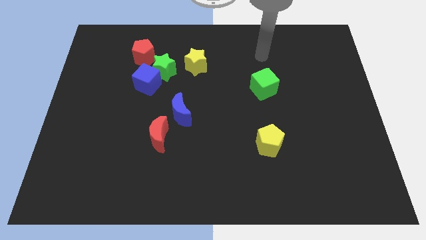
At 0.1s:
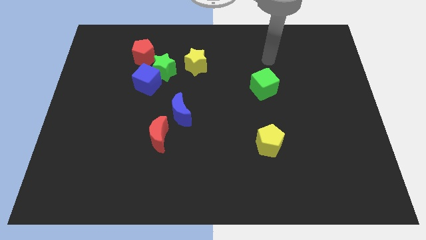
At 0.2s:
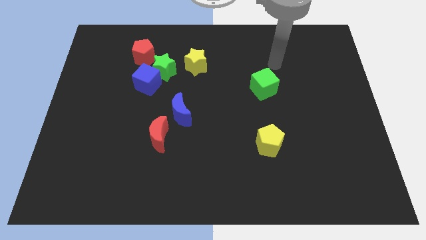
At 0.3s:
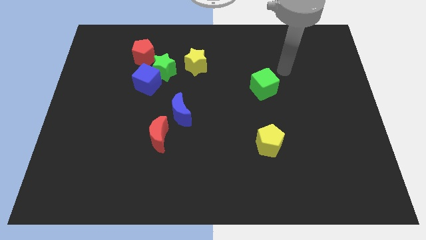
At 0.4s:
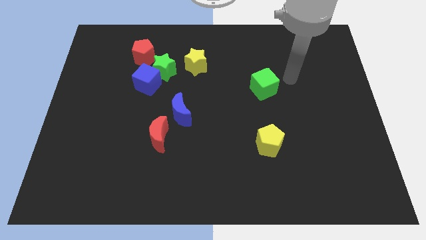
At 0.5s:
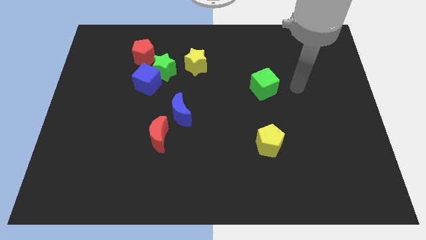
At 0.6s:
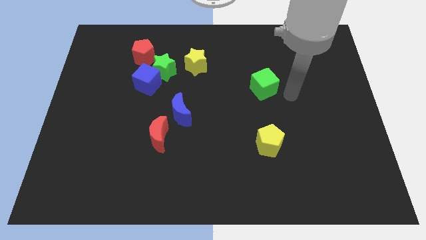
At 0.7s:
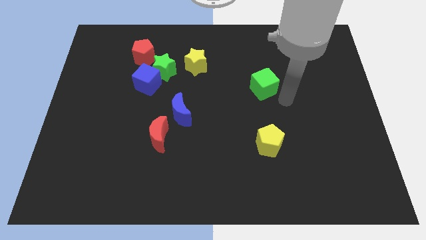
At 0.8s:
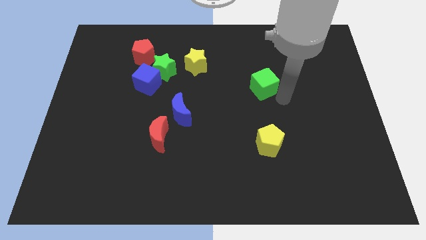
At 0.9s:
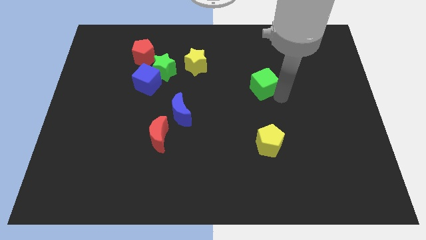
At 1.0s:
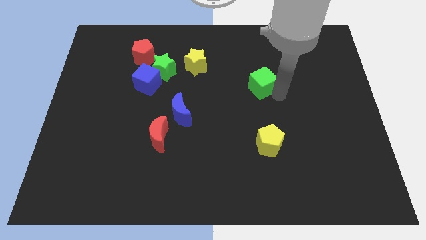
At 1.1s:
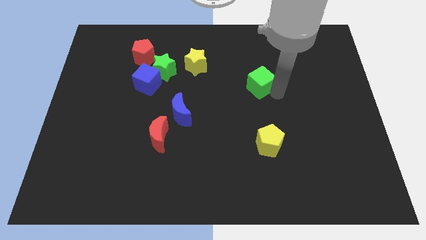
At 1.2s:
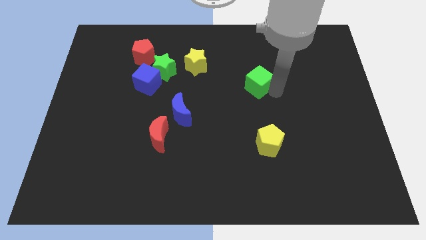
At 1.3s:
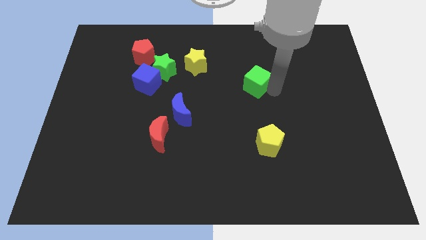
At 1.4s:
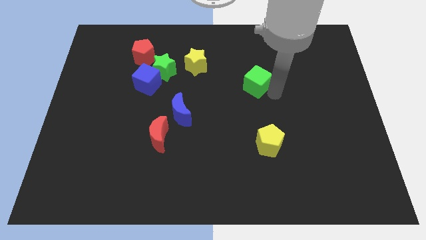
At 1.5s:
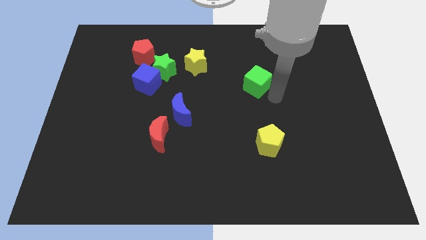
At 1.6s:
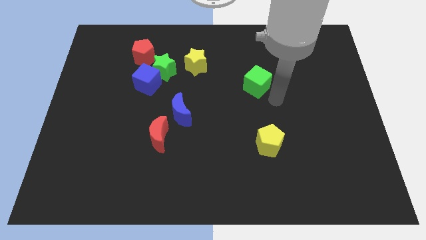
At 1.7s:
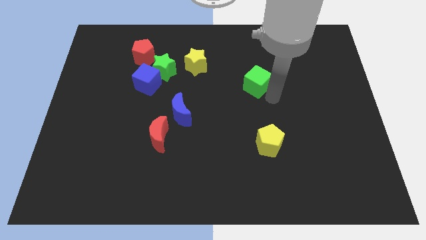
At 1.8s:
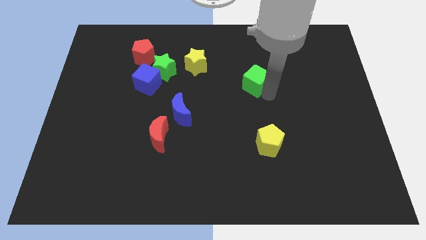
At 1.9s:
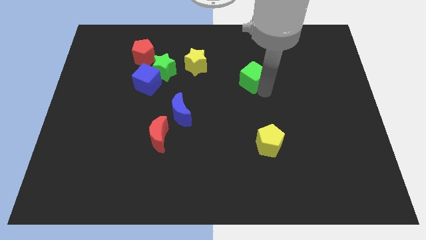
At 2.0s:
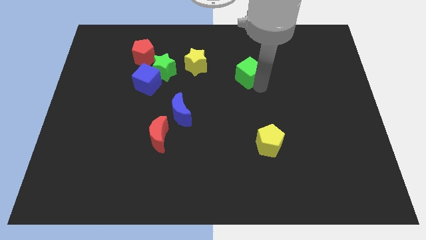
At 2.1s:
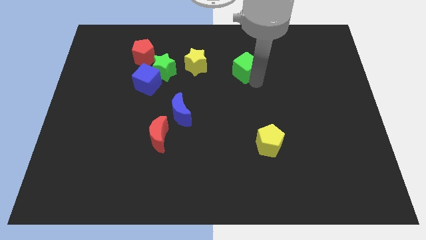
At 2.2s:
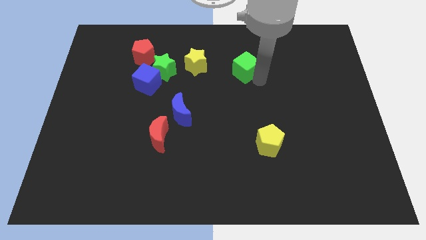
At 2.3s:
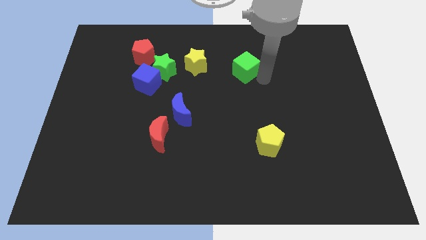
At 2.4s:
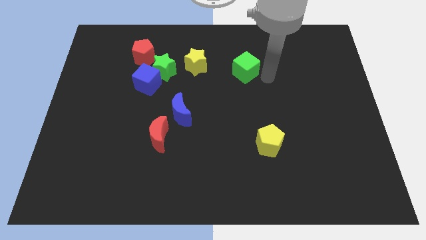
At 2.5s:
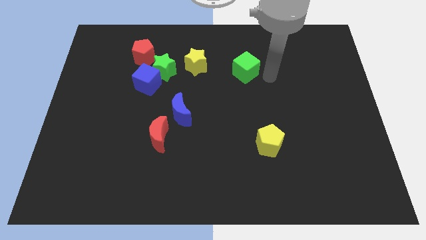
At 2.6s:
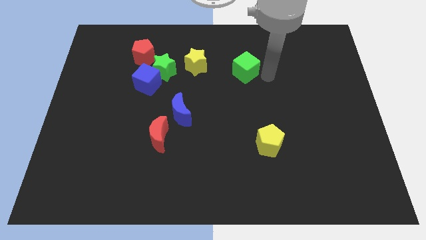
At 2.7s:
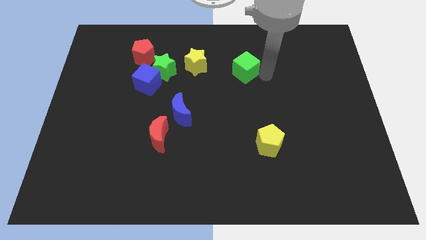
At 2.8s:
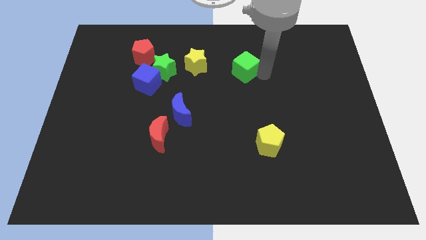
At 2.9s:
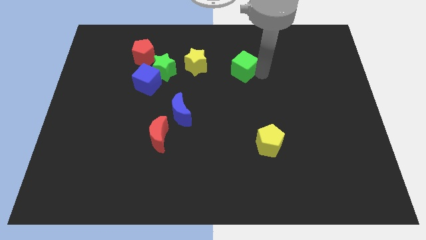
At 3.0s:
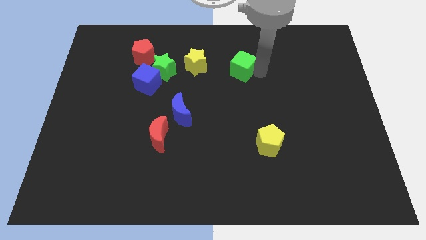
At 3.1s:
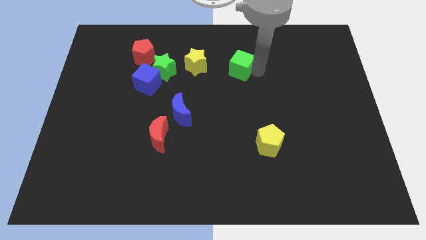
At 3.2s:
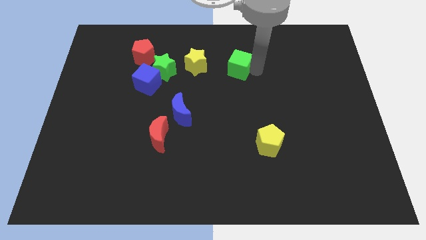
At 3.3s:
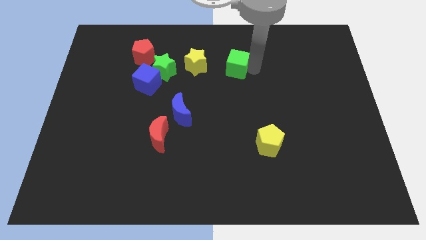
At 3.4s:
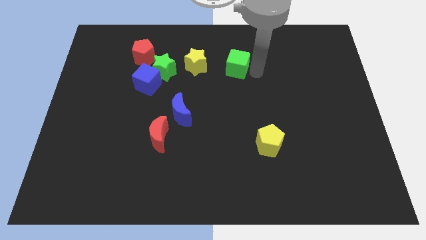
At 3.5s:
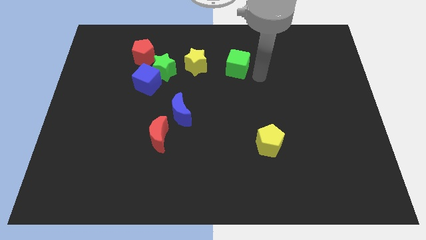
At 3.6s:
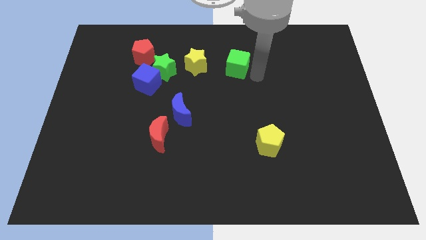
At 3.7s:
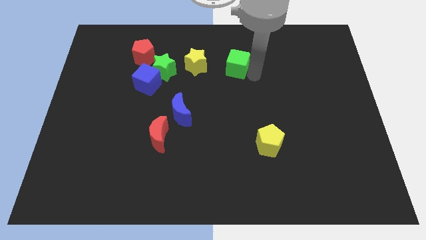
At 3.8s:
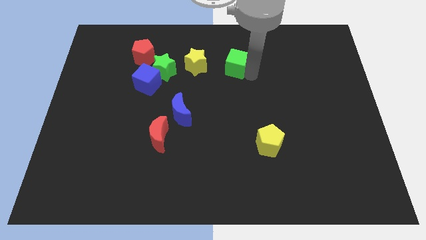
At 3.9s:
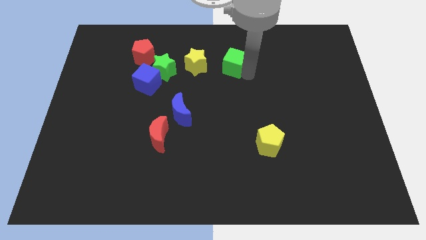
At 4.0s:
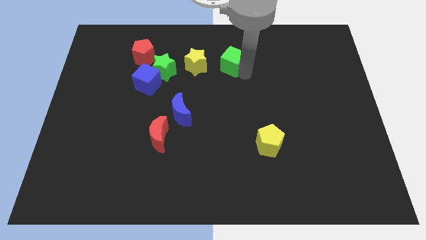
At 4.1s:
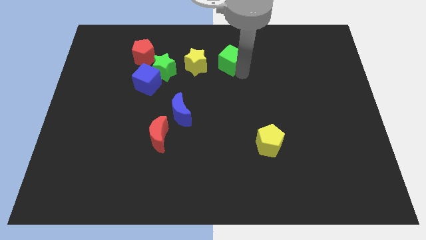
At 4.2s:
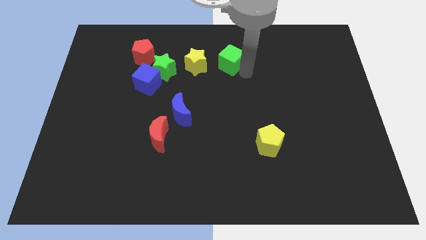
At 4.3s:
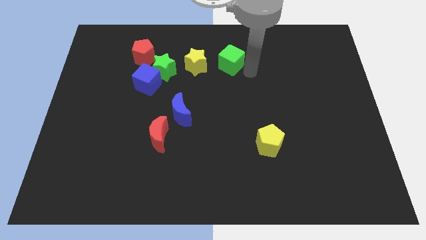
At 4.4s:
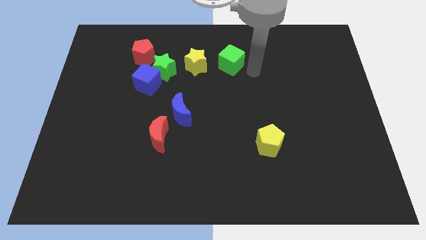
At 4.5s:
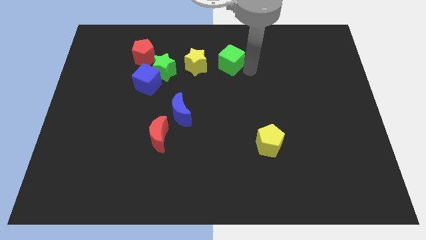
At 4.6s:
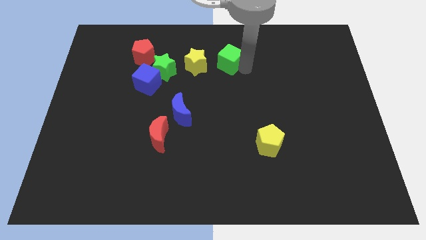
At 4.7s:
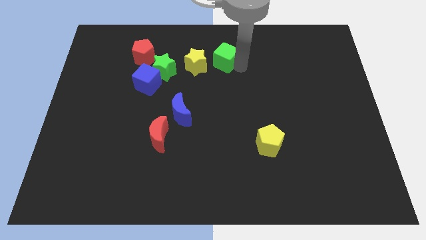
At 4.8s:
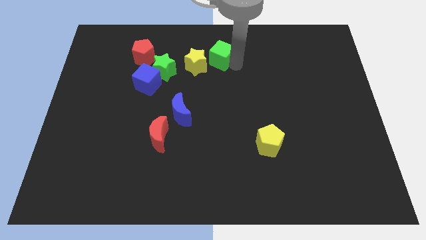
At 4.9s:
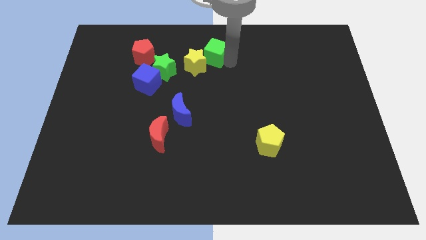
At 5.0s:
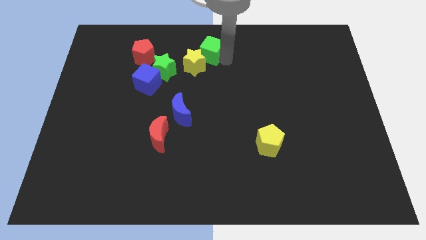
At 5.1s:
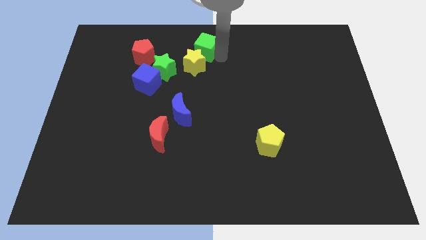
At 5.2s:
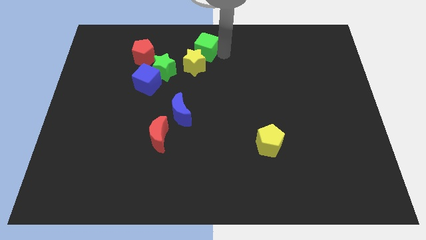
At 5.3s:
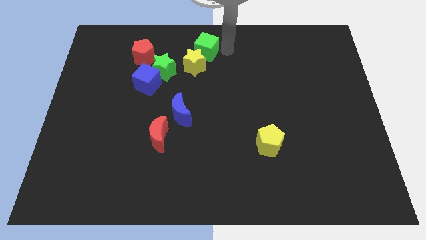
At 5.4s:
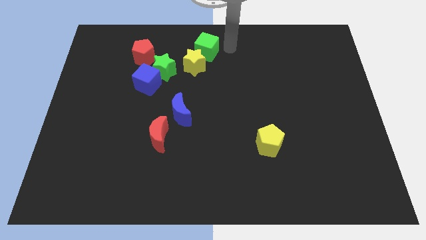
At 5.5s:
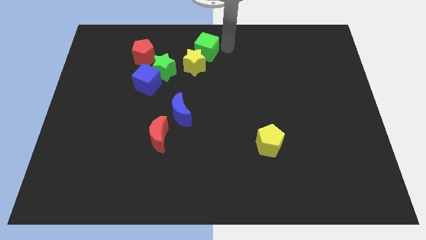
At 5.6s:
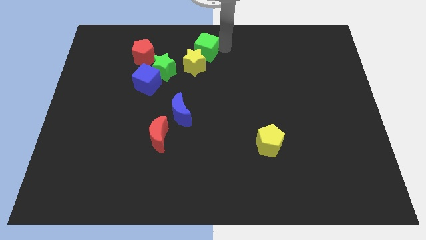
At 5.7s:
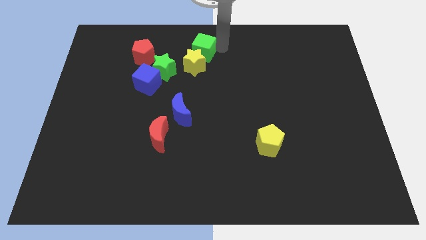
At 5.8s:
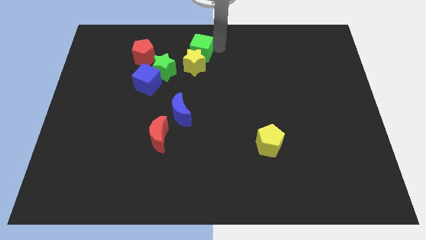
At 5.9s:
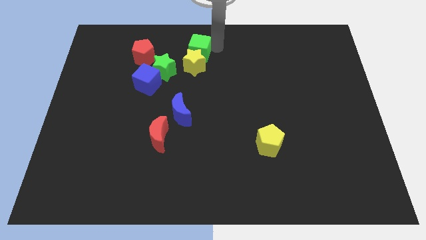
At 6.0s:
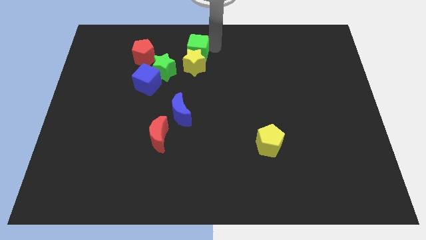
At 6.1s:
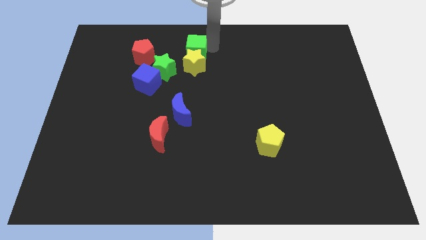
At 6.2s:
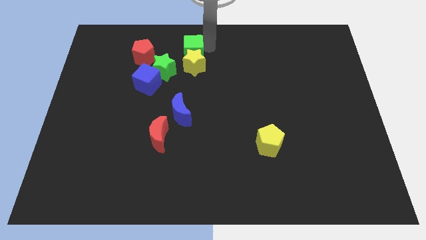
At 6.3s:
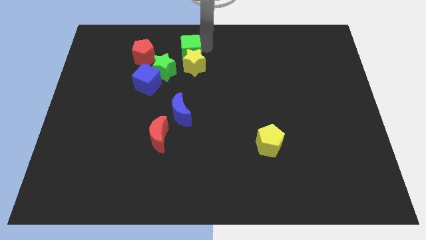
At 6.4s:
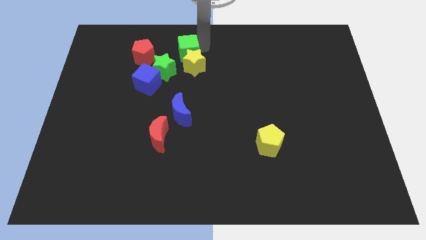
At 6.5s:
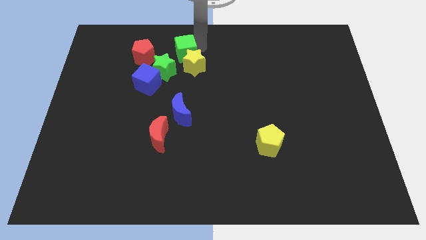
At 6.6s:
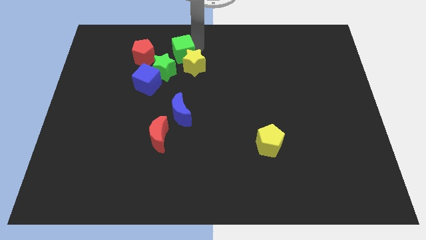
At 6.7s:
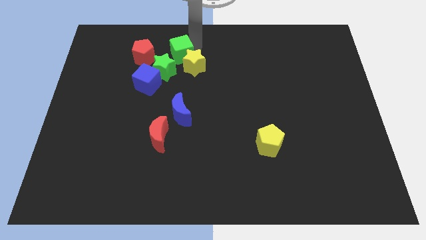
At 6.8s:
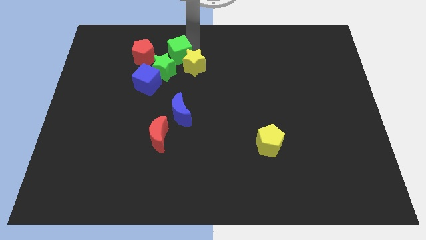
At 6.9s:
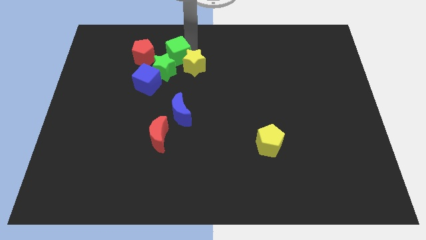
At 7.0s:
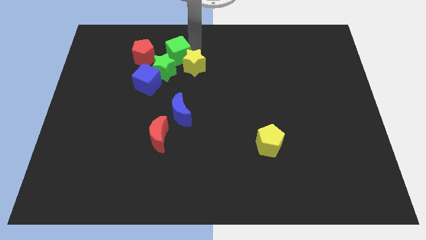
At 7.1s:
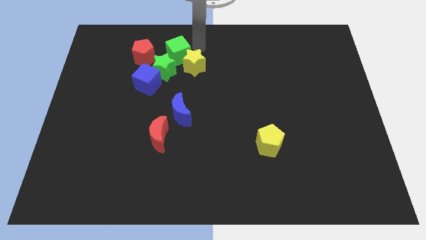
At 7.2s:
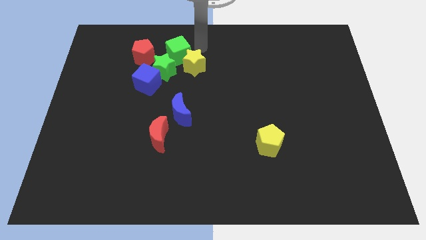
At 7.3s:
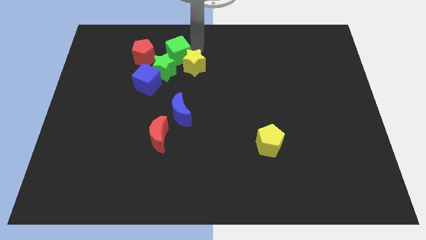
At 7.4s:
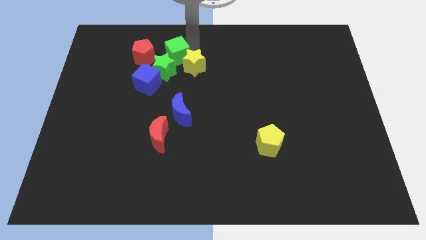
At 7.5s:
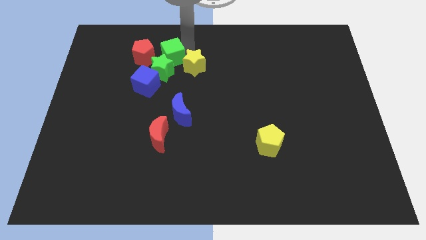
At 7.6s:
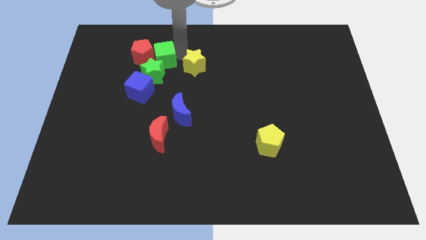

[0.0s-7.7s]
push the green cube next to the red pentagon
